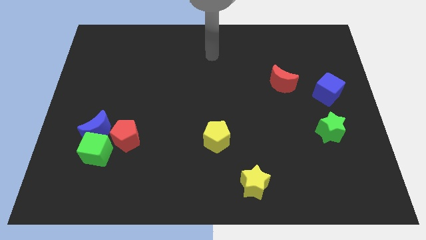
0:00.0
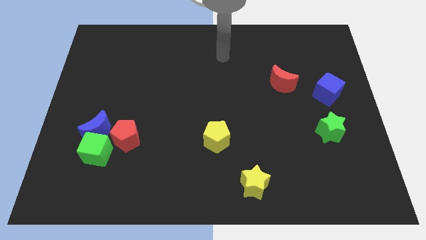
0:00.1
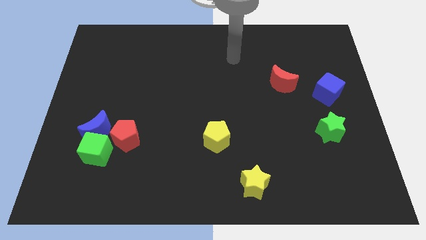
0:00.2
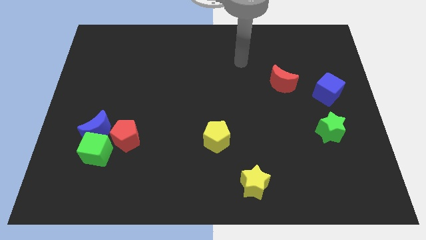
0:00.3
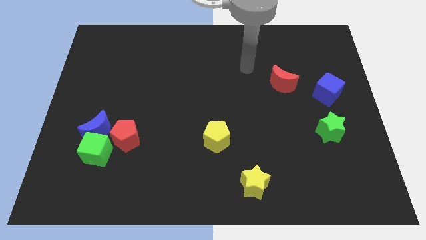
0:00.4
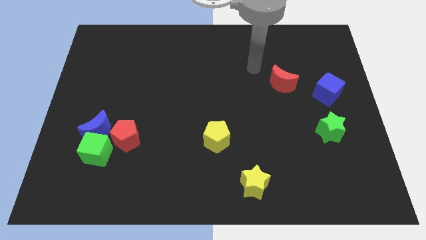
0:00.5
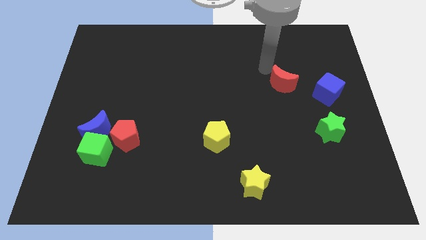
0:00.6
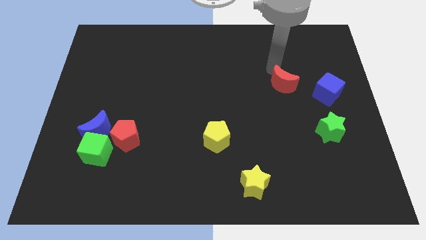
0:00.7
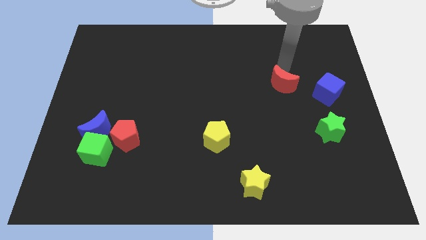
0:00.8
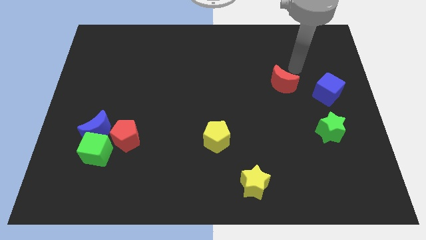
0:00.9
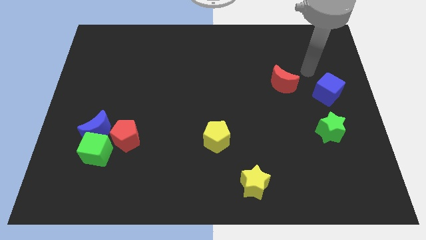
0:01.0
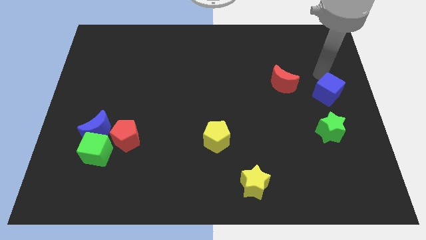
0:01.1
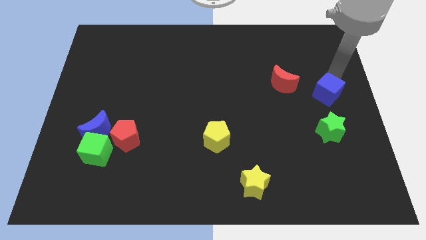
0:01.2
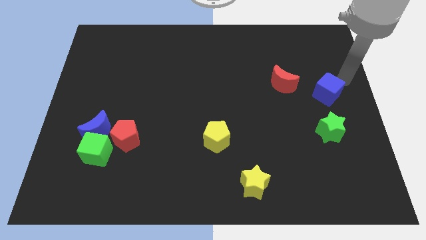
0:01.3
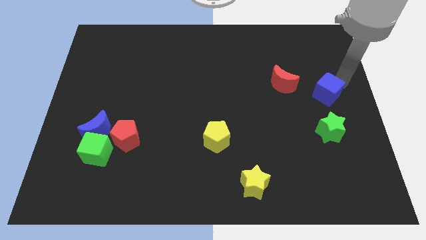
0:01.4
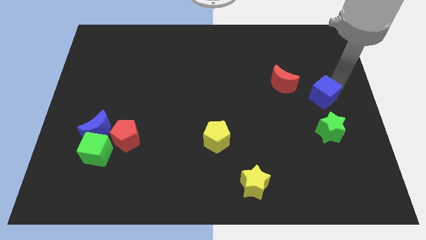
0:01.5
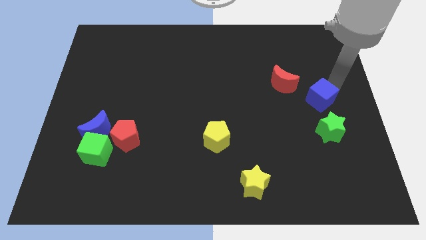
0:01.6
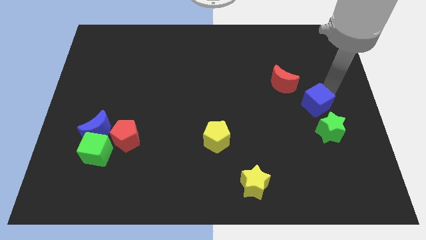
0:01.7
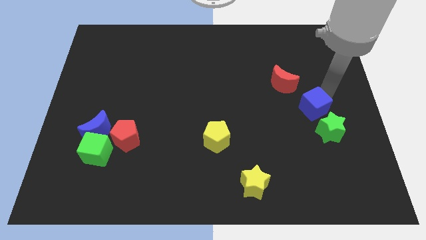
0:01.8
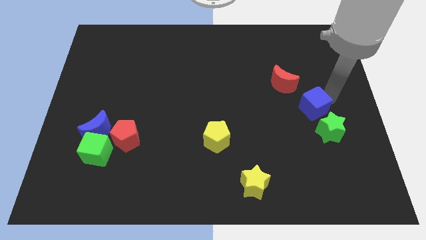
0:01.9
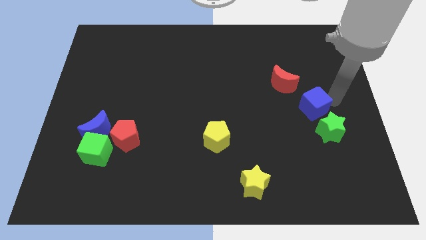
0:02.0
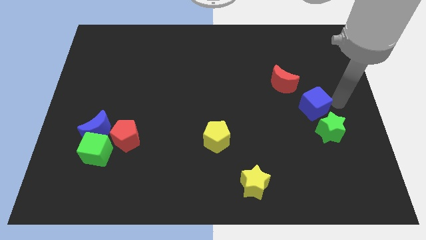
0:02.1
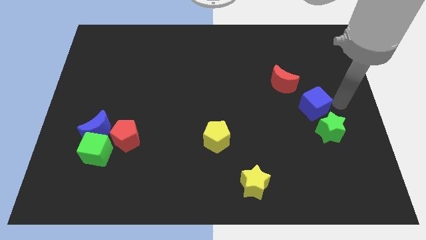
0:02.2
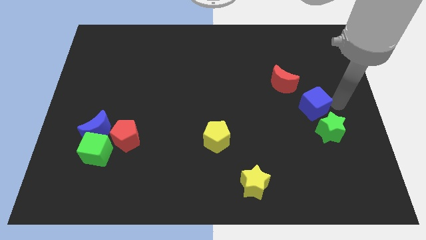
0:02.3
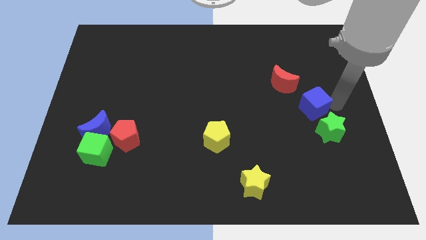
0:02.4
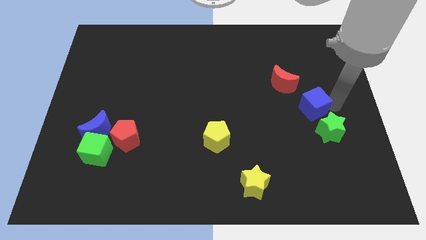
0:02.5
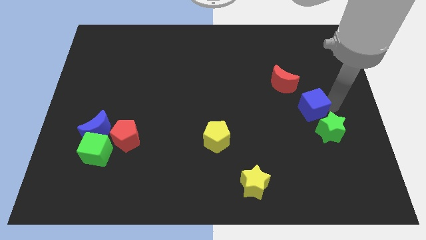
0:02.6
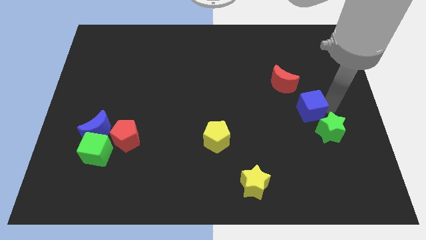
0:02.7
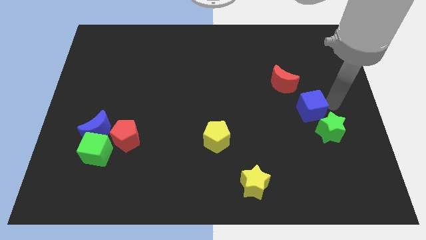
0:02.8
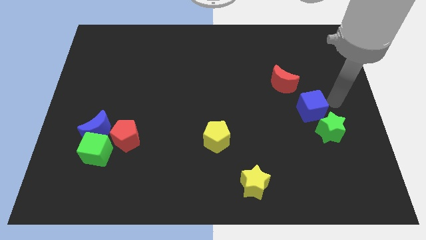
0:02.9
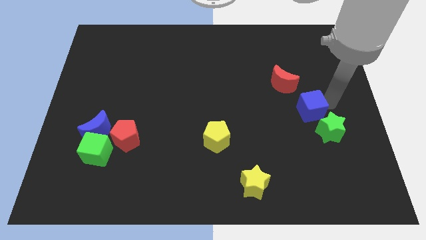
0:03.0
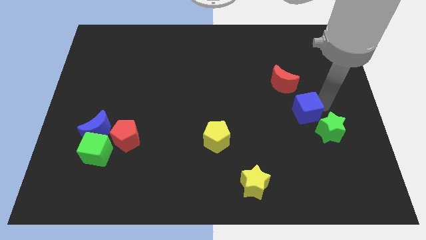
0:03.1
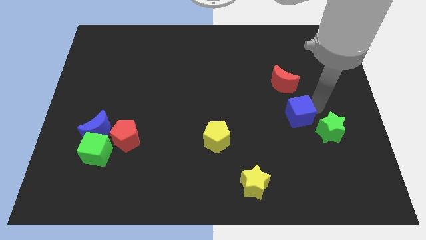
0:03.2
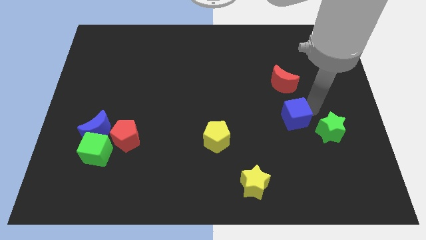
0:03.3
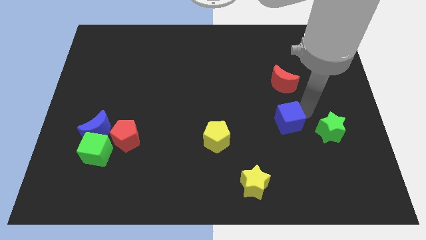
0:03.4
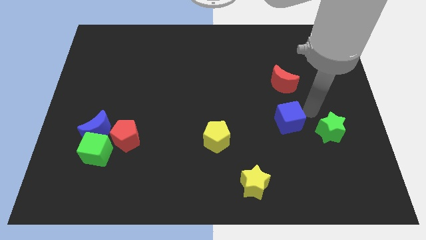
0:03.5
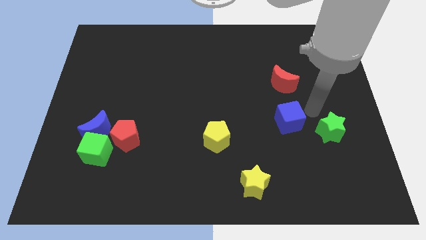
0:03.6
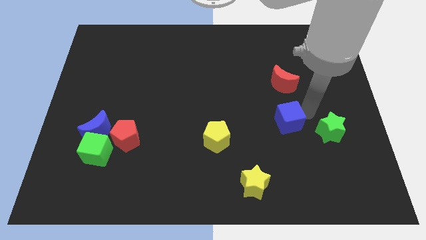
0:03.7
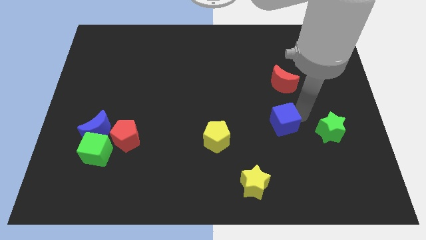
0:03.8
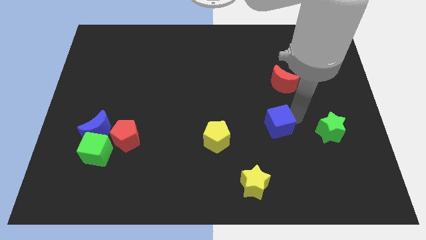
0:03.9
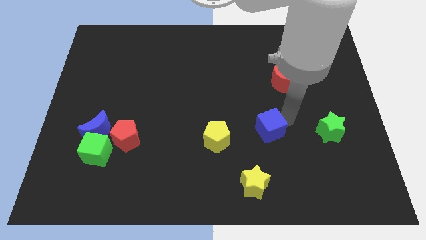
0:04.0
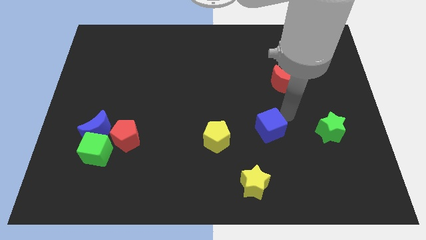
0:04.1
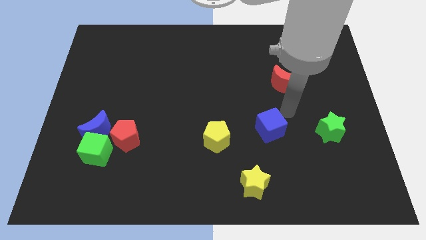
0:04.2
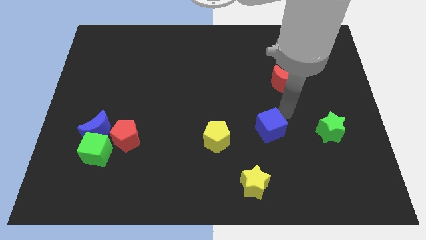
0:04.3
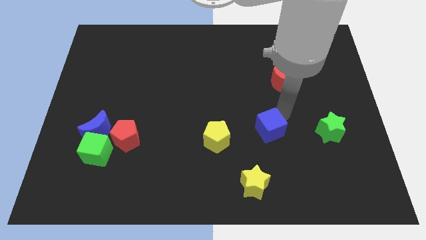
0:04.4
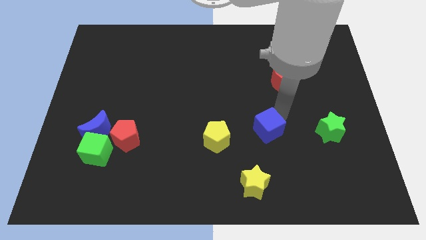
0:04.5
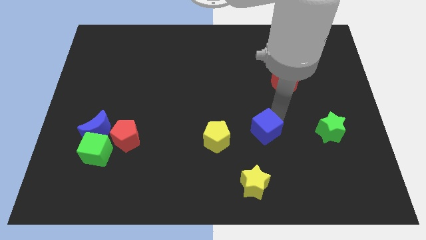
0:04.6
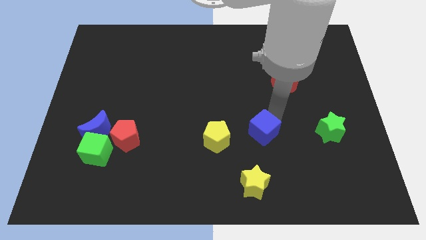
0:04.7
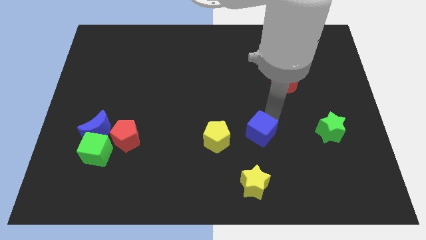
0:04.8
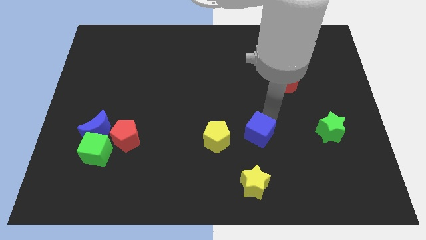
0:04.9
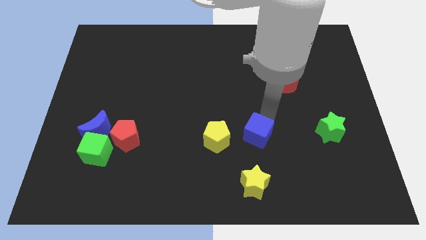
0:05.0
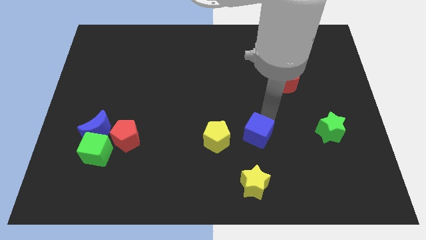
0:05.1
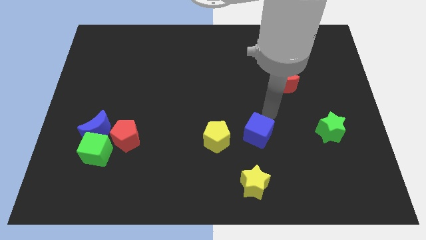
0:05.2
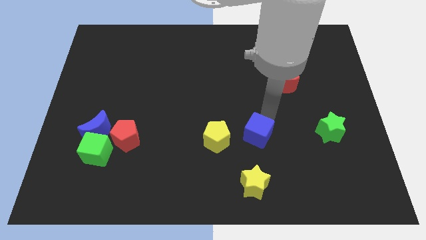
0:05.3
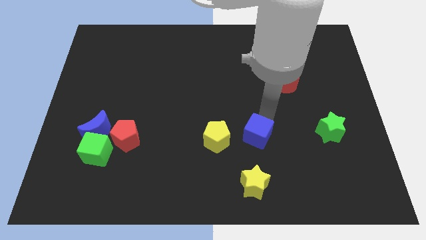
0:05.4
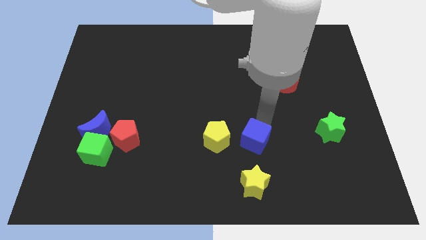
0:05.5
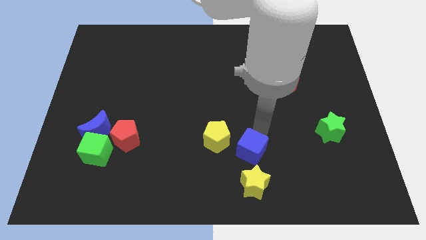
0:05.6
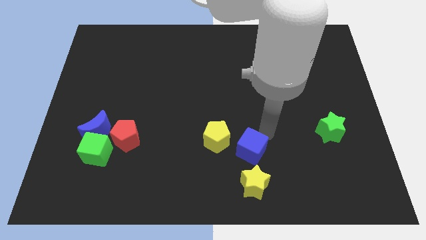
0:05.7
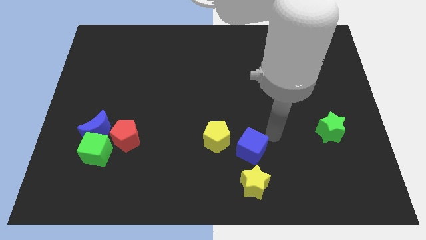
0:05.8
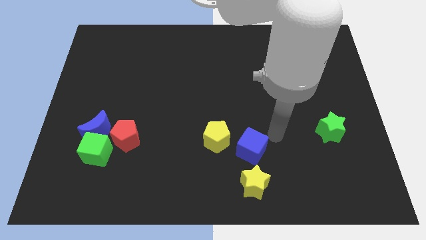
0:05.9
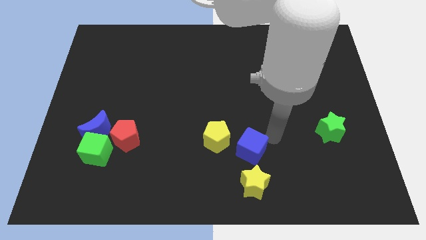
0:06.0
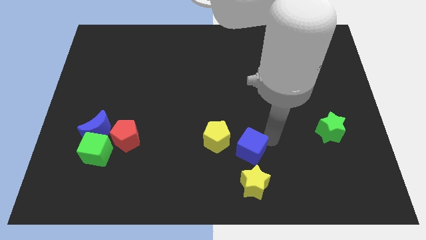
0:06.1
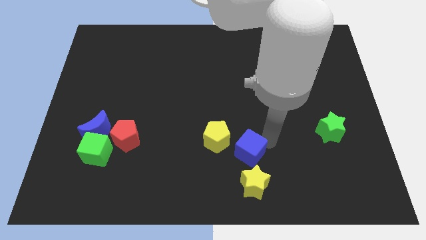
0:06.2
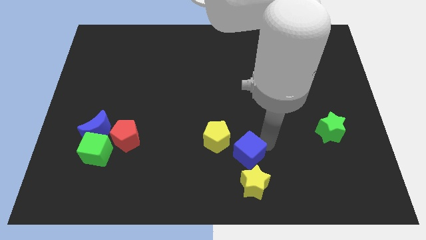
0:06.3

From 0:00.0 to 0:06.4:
slide the blue cube diagonally up and to the left of the yellow star

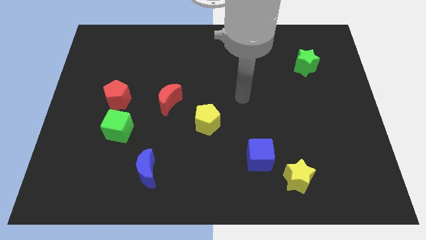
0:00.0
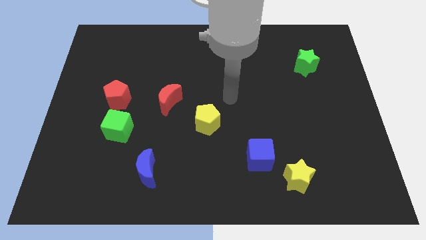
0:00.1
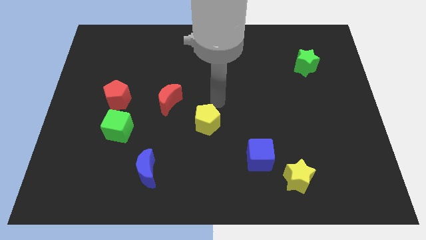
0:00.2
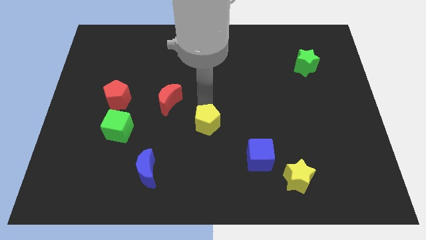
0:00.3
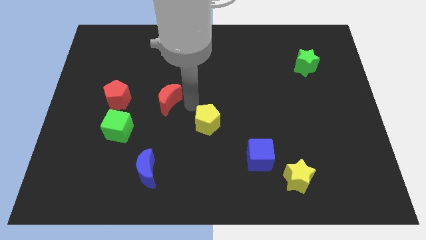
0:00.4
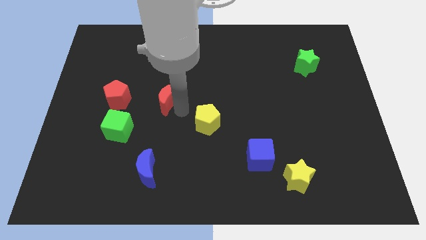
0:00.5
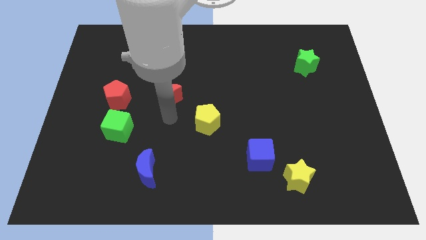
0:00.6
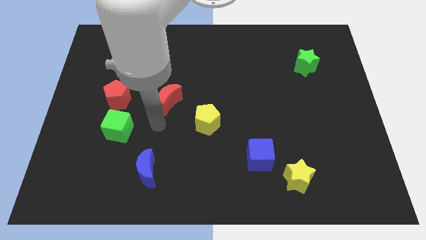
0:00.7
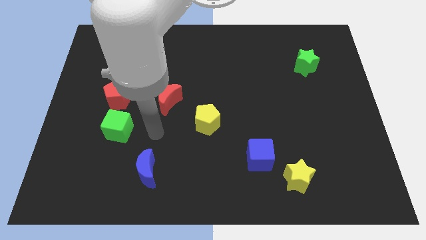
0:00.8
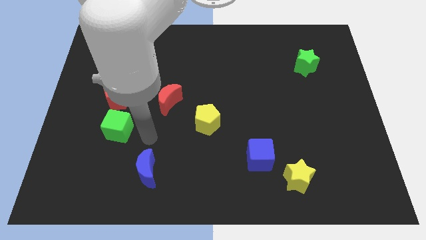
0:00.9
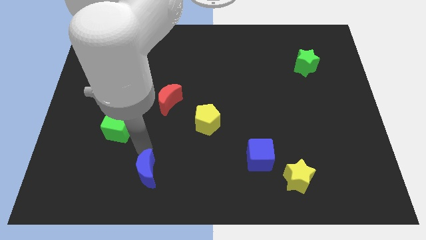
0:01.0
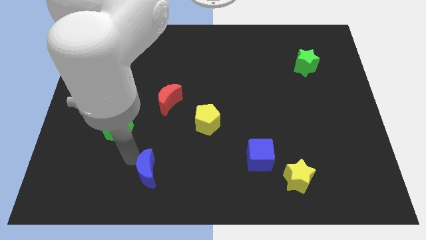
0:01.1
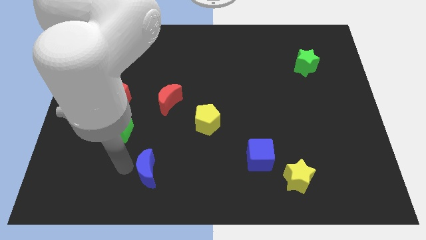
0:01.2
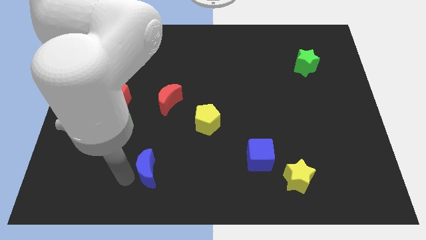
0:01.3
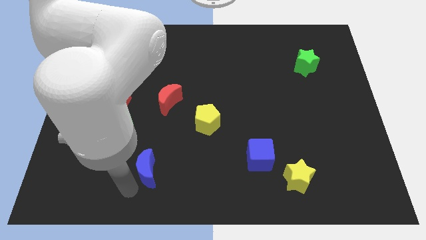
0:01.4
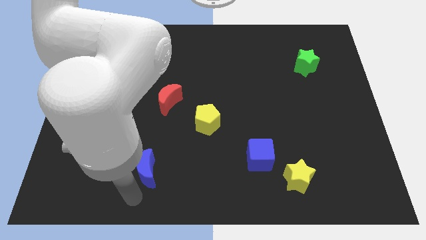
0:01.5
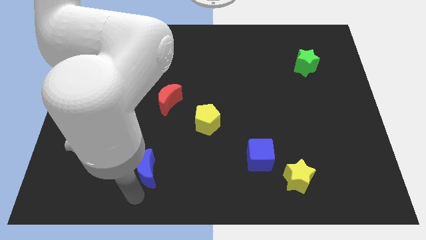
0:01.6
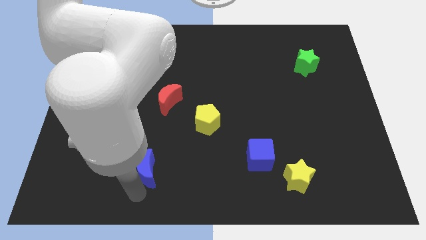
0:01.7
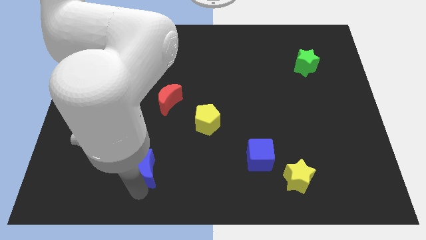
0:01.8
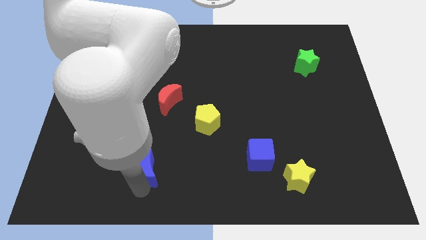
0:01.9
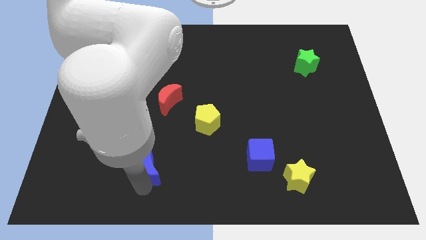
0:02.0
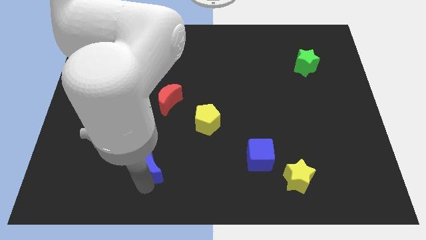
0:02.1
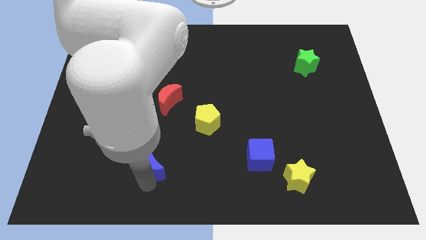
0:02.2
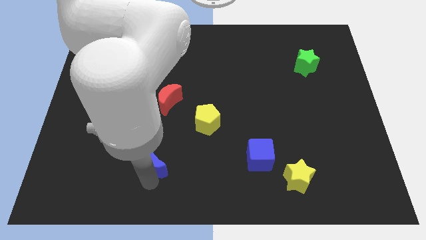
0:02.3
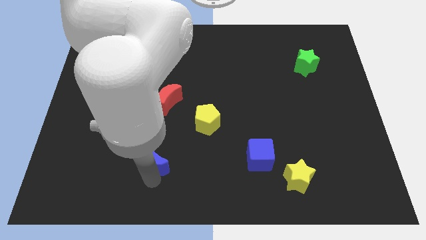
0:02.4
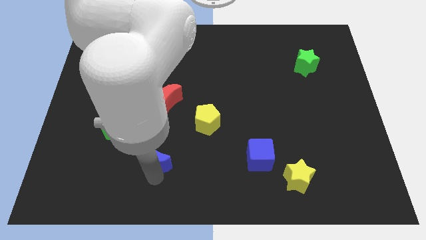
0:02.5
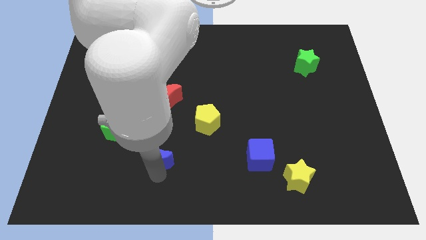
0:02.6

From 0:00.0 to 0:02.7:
move the blue moon to the bottom side of the red moon
